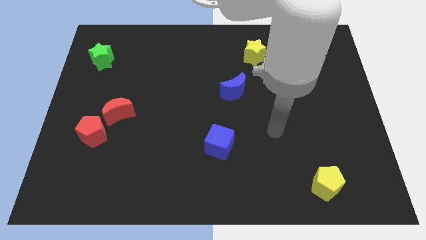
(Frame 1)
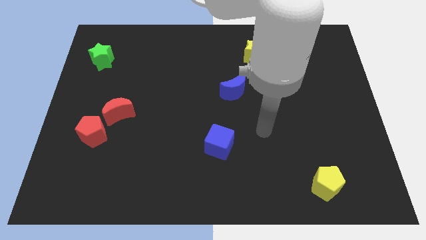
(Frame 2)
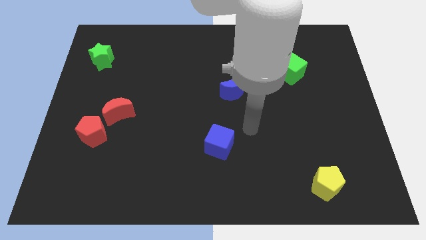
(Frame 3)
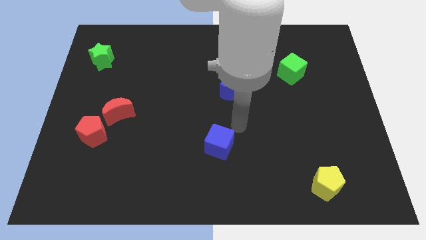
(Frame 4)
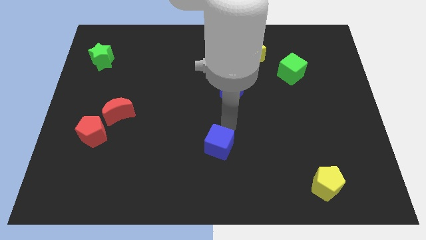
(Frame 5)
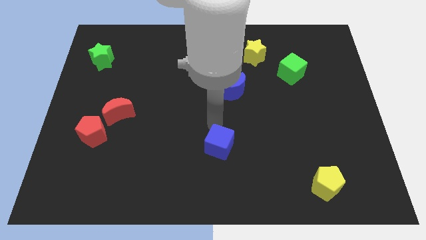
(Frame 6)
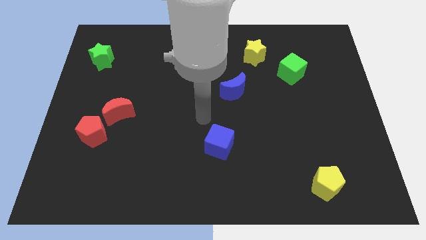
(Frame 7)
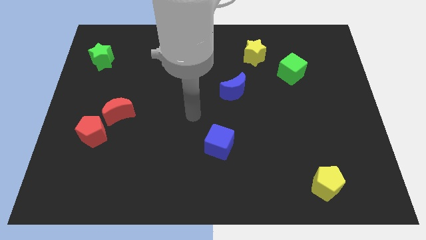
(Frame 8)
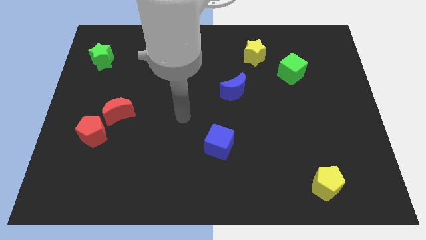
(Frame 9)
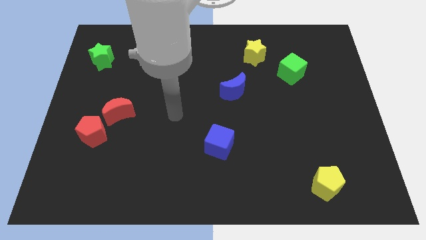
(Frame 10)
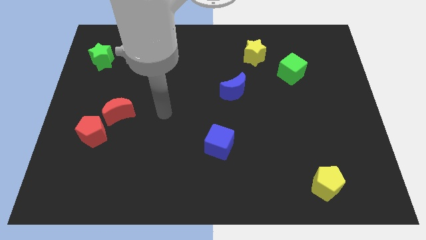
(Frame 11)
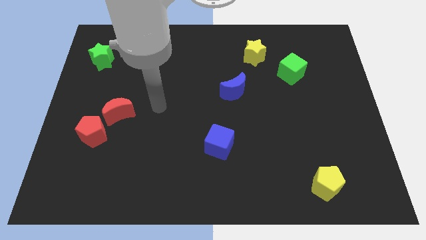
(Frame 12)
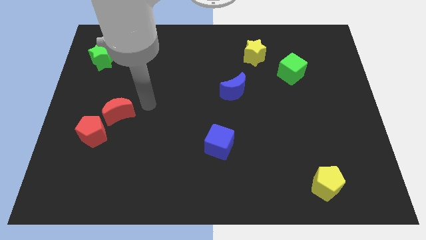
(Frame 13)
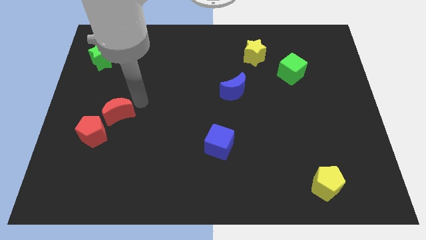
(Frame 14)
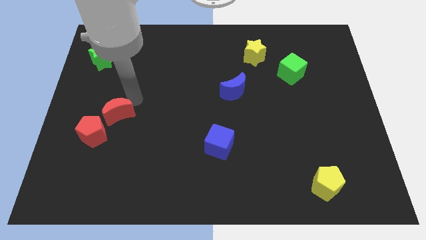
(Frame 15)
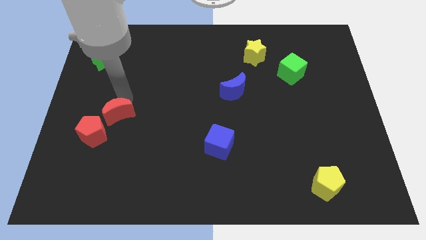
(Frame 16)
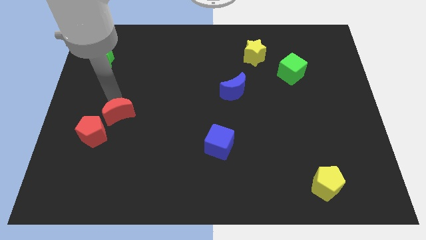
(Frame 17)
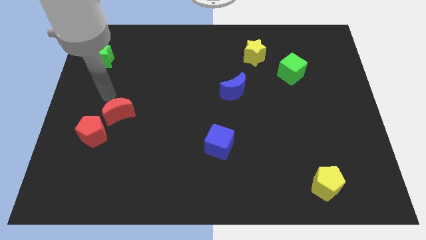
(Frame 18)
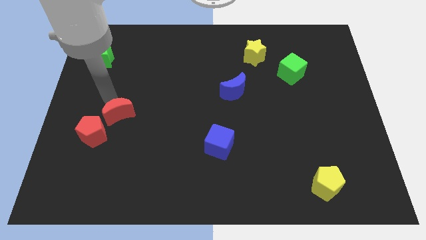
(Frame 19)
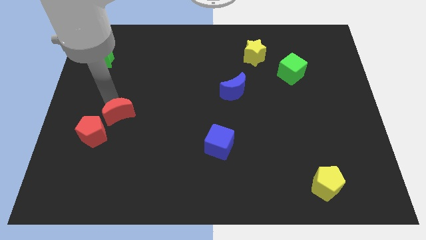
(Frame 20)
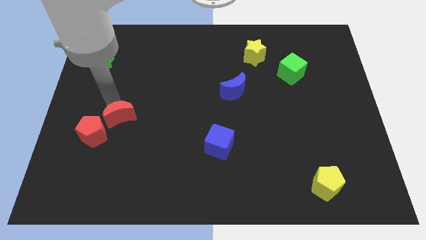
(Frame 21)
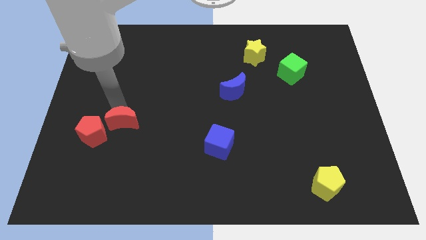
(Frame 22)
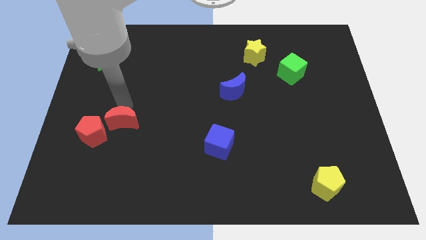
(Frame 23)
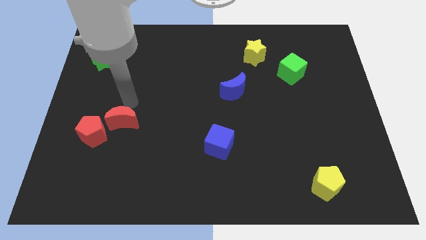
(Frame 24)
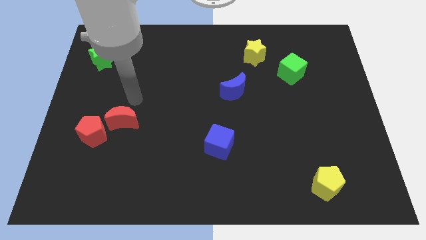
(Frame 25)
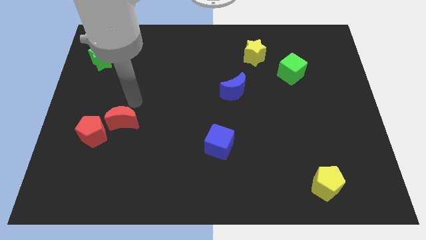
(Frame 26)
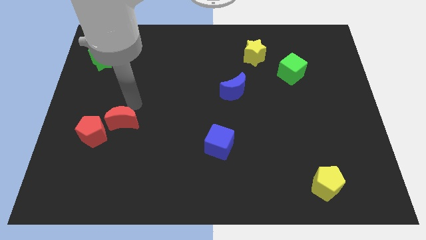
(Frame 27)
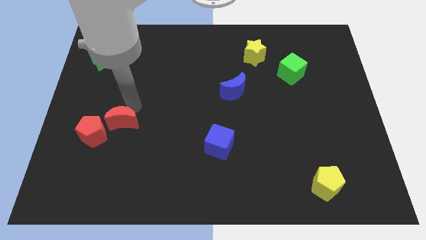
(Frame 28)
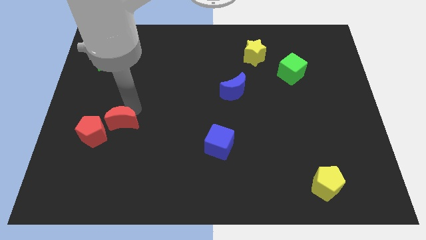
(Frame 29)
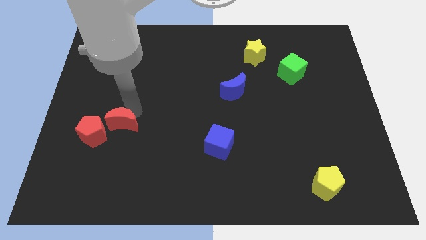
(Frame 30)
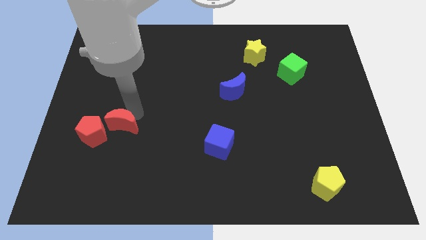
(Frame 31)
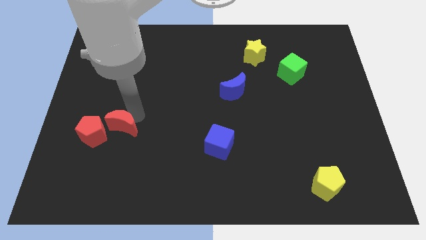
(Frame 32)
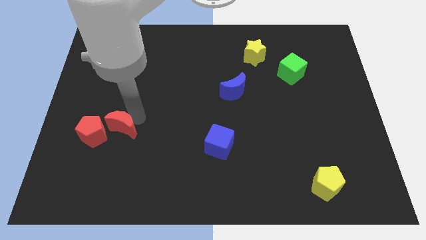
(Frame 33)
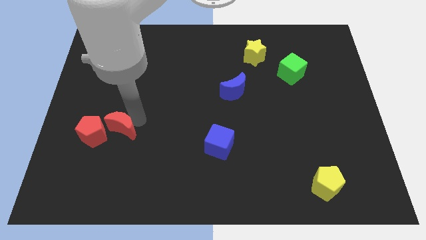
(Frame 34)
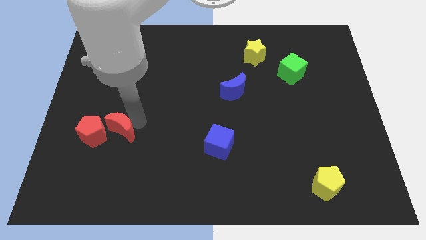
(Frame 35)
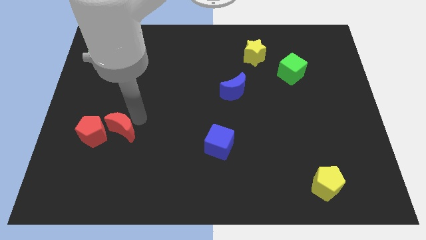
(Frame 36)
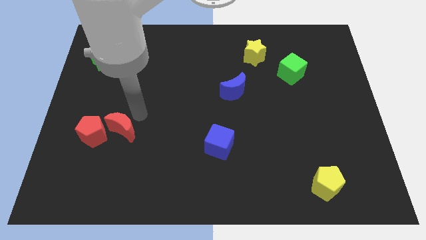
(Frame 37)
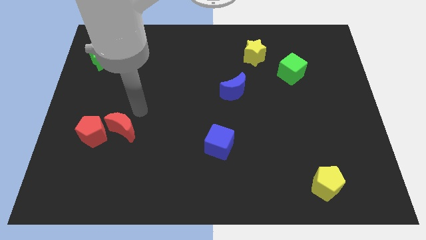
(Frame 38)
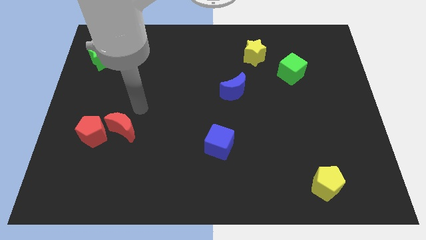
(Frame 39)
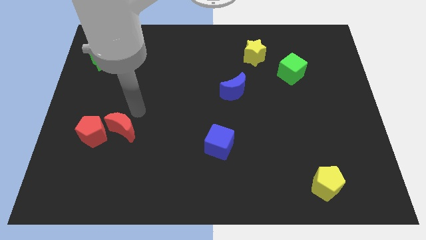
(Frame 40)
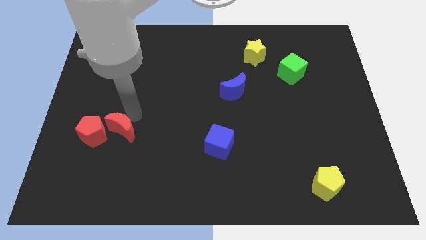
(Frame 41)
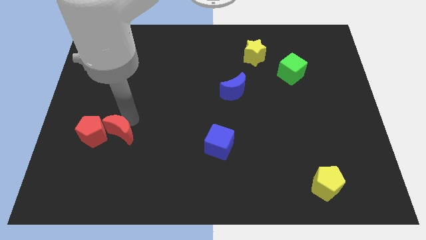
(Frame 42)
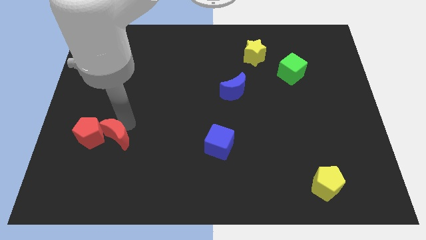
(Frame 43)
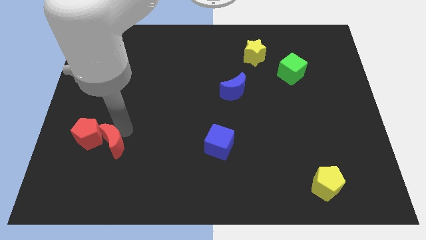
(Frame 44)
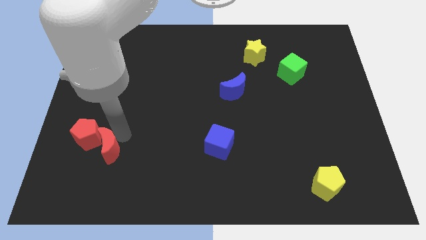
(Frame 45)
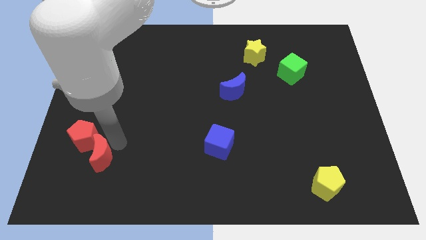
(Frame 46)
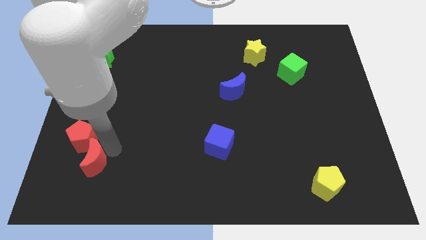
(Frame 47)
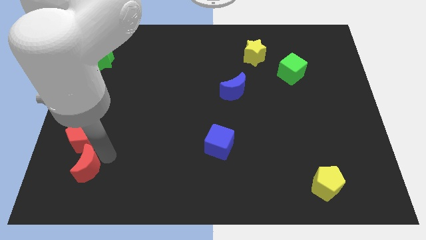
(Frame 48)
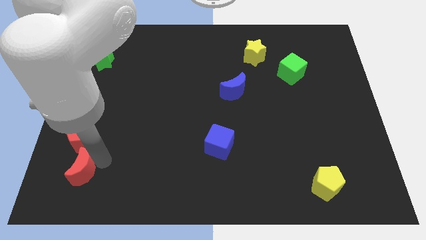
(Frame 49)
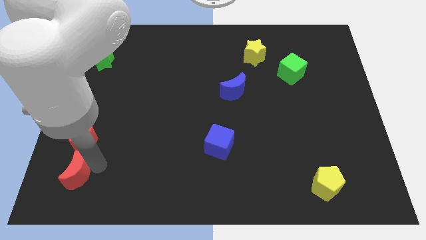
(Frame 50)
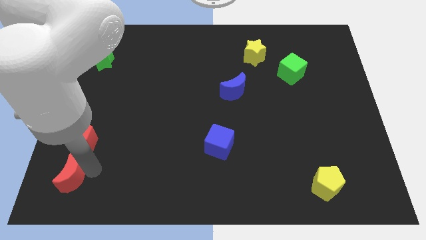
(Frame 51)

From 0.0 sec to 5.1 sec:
put the red moon to the bottom left corner

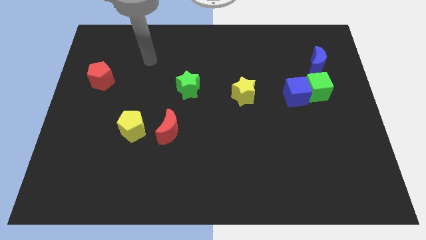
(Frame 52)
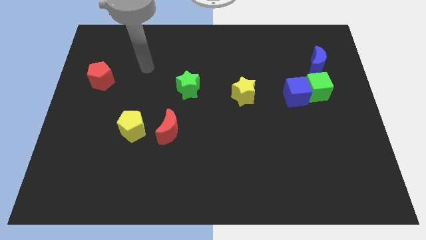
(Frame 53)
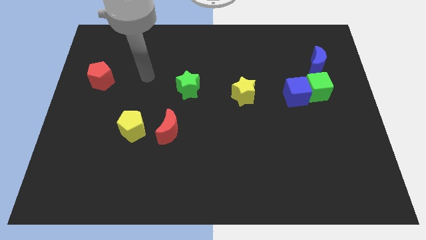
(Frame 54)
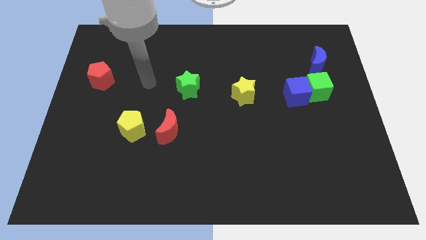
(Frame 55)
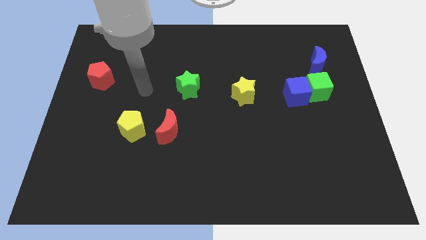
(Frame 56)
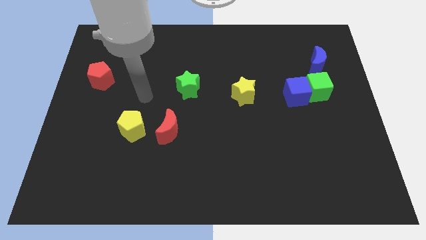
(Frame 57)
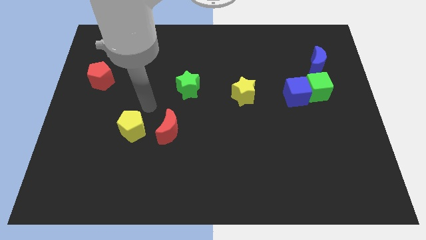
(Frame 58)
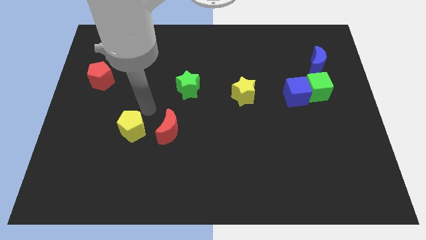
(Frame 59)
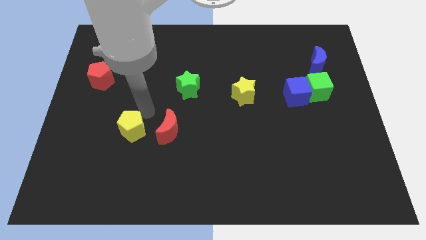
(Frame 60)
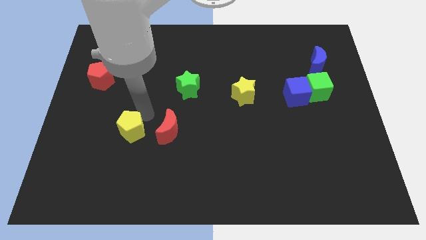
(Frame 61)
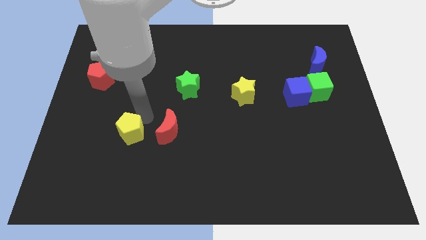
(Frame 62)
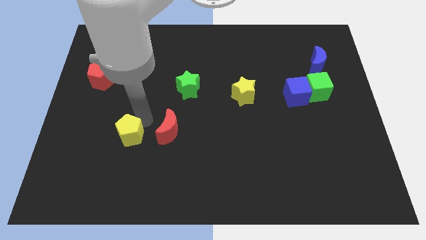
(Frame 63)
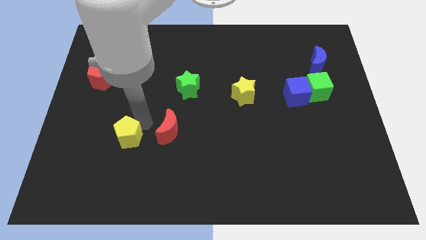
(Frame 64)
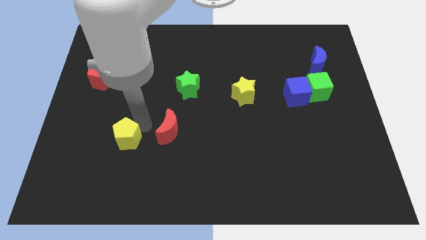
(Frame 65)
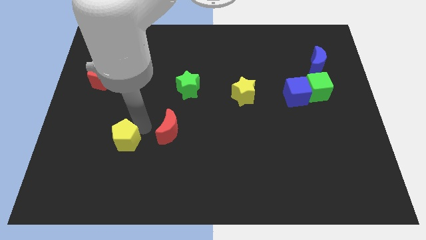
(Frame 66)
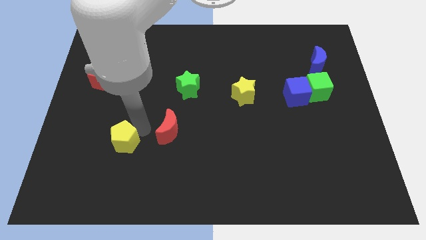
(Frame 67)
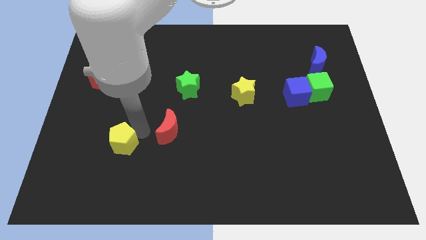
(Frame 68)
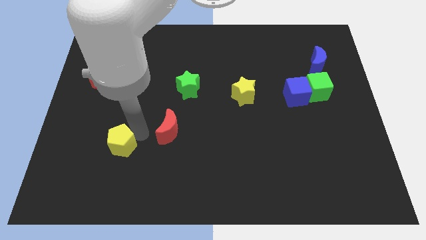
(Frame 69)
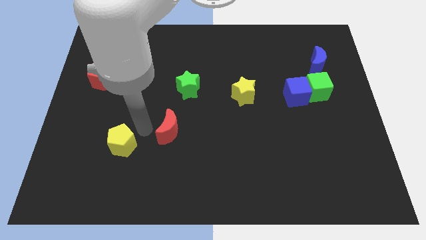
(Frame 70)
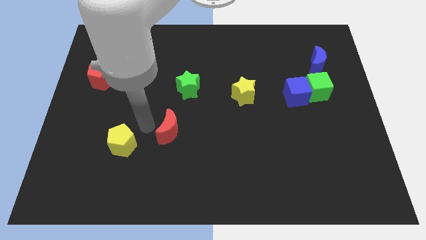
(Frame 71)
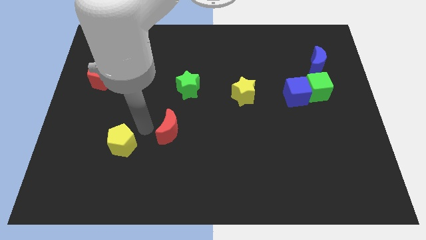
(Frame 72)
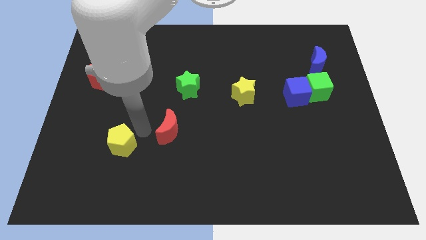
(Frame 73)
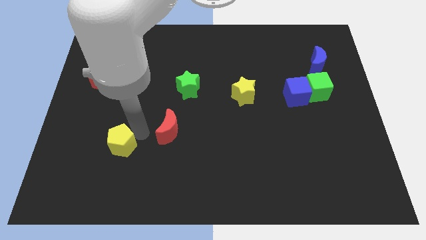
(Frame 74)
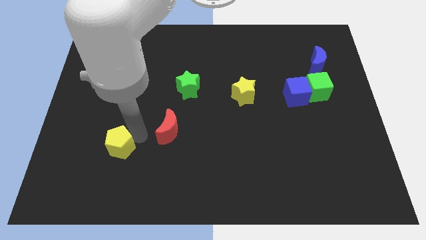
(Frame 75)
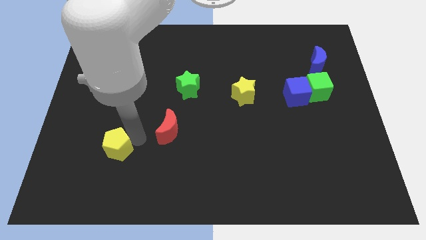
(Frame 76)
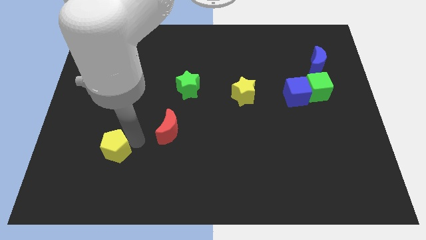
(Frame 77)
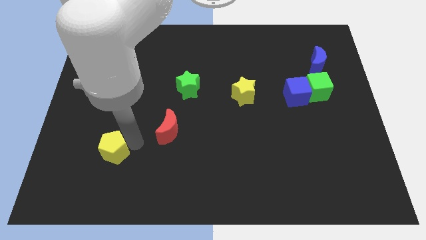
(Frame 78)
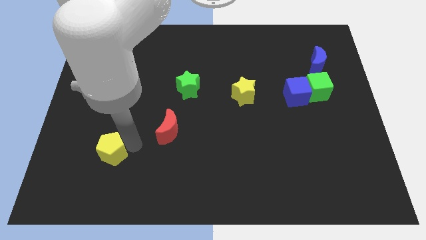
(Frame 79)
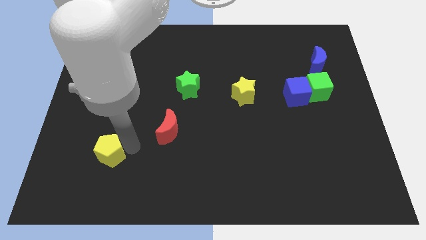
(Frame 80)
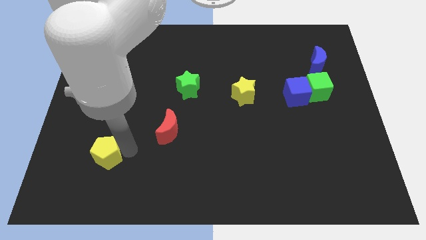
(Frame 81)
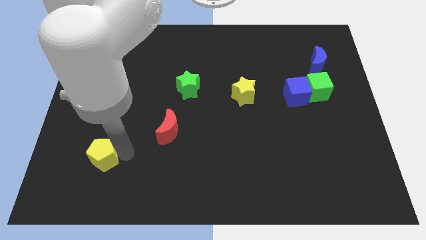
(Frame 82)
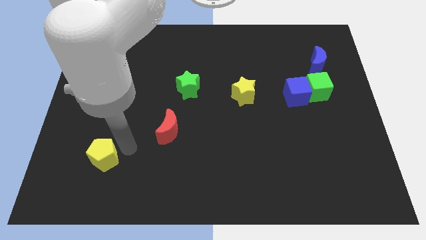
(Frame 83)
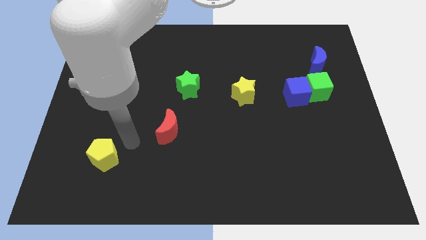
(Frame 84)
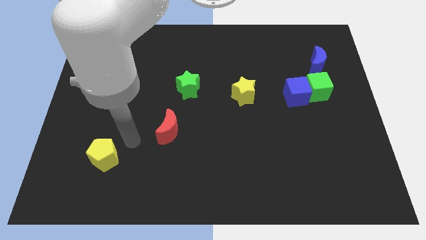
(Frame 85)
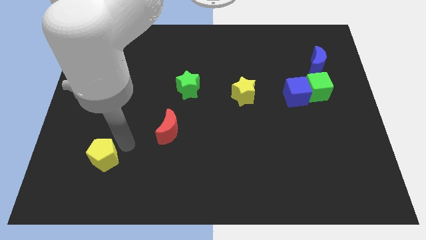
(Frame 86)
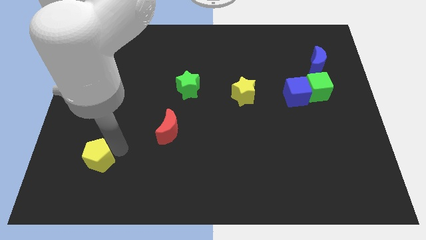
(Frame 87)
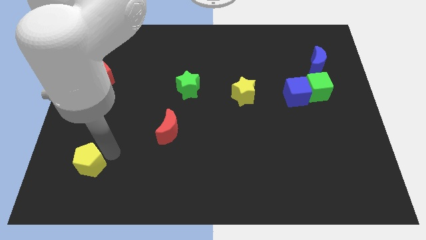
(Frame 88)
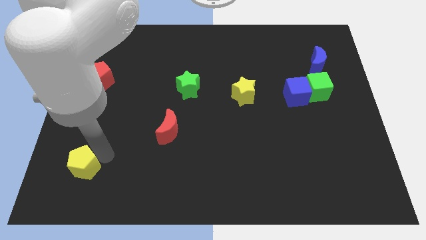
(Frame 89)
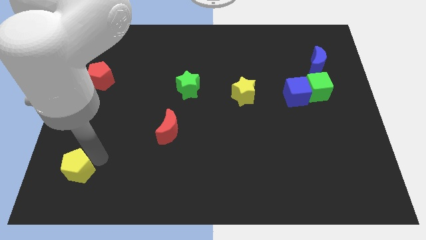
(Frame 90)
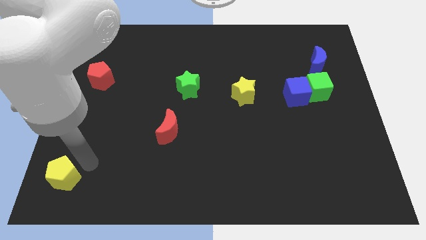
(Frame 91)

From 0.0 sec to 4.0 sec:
move the yellow pentagon to the bottom left
